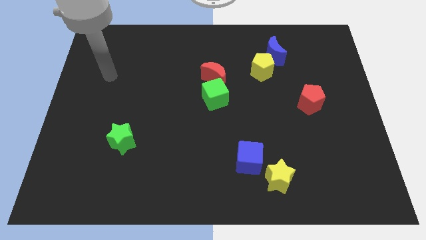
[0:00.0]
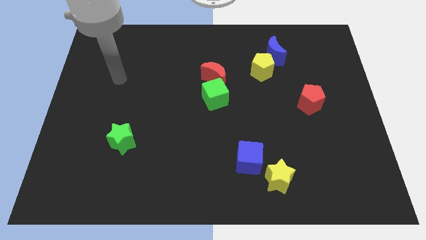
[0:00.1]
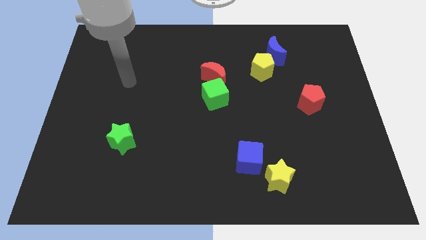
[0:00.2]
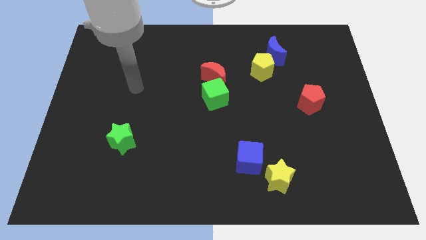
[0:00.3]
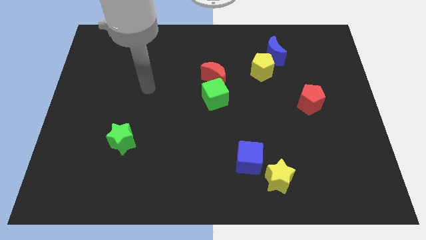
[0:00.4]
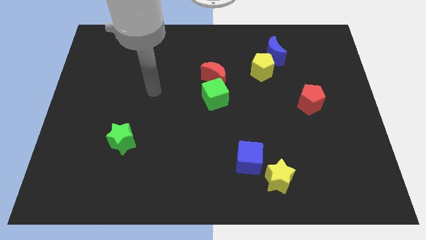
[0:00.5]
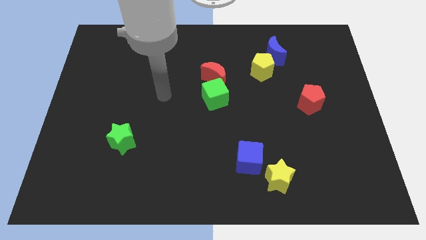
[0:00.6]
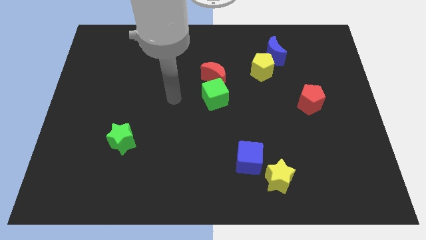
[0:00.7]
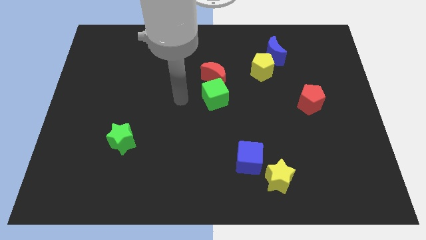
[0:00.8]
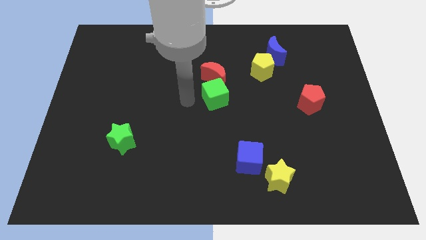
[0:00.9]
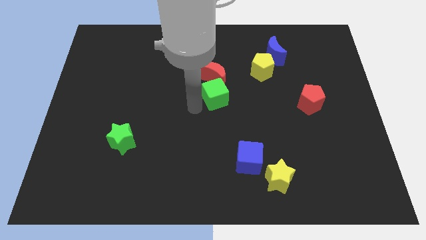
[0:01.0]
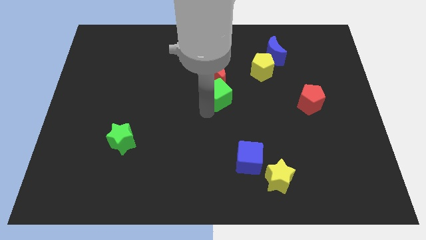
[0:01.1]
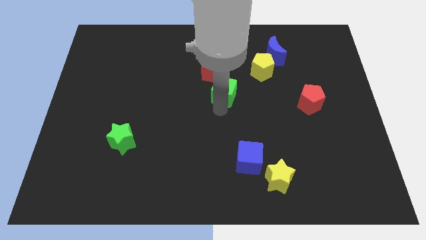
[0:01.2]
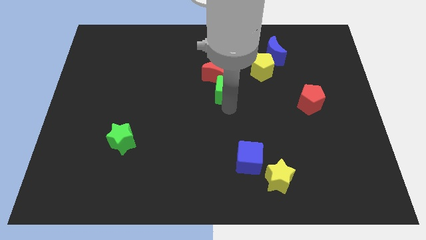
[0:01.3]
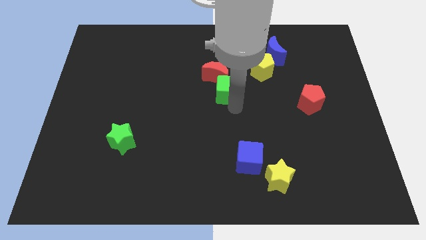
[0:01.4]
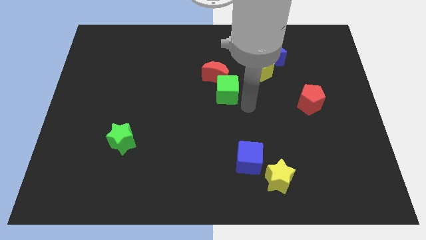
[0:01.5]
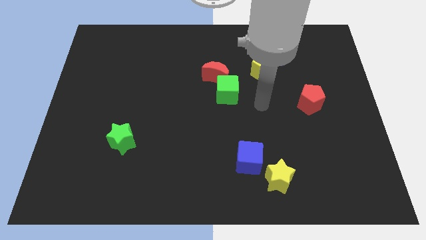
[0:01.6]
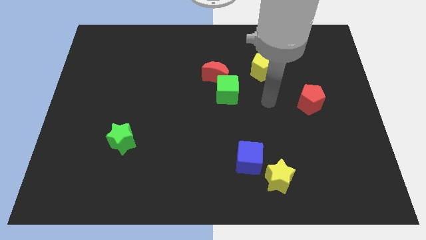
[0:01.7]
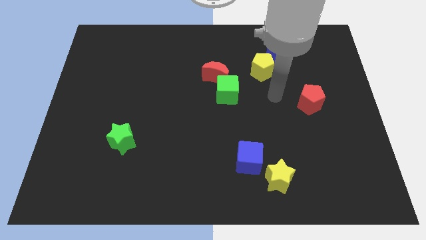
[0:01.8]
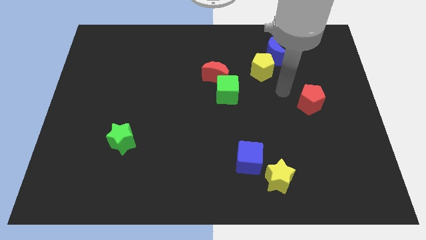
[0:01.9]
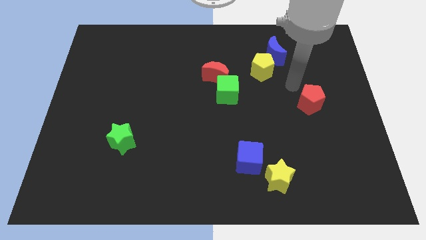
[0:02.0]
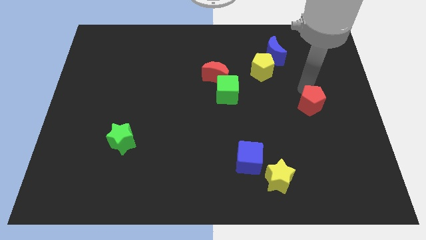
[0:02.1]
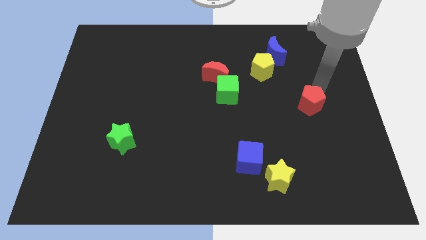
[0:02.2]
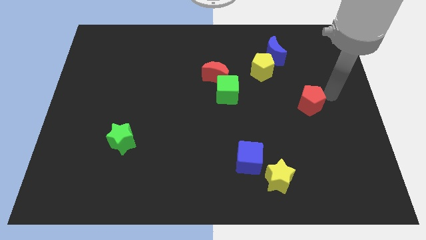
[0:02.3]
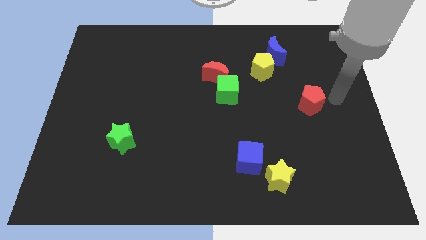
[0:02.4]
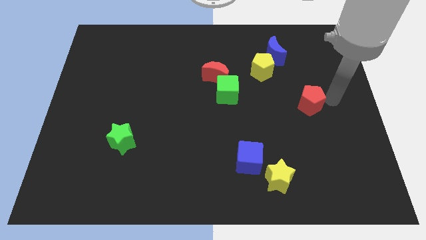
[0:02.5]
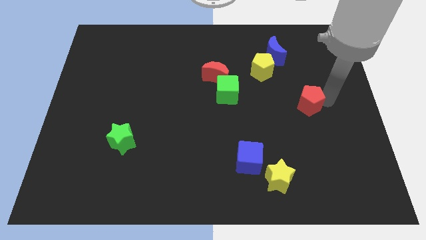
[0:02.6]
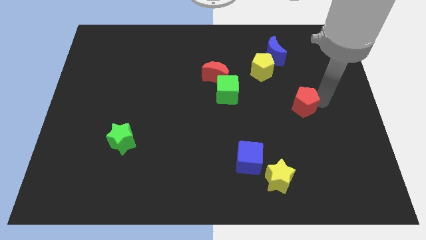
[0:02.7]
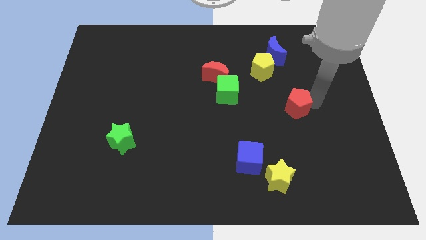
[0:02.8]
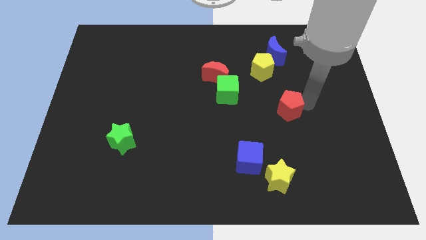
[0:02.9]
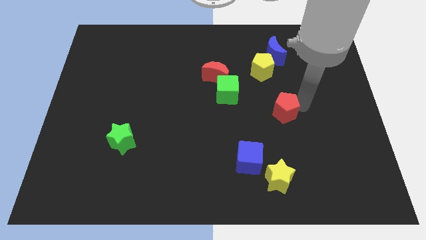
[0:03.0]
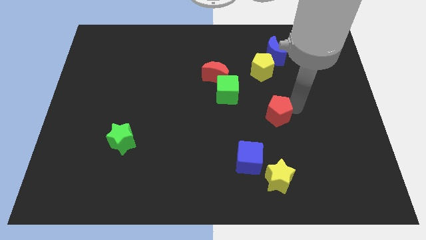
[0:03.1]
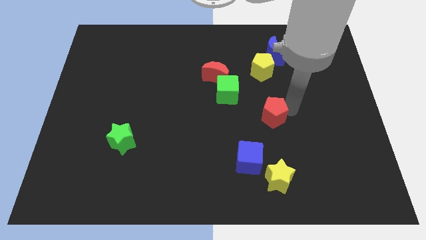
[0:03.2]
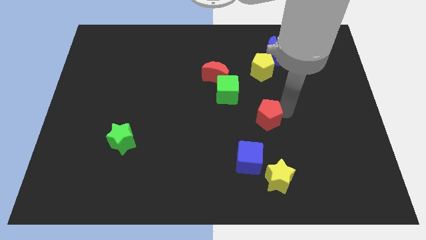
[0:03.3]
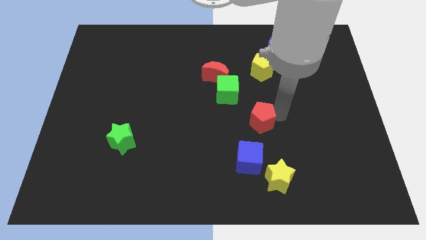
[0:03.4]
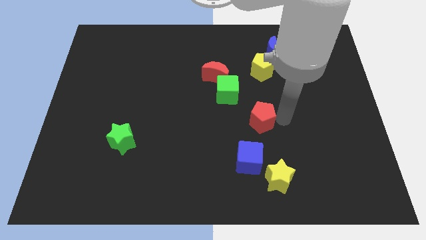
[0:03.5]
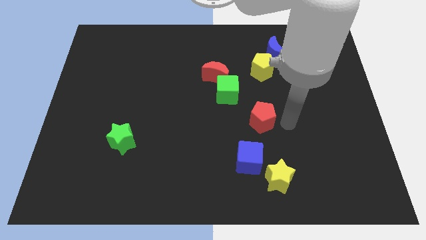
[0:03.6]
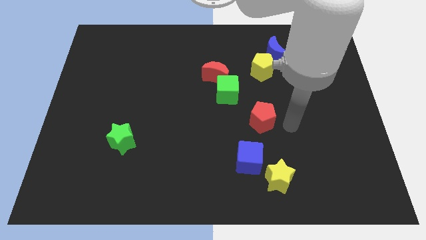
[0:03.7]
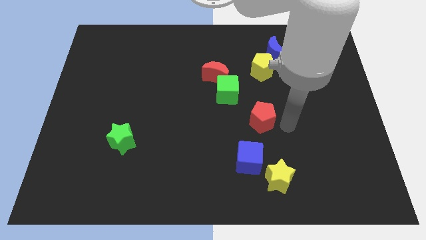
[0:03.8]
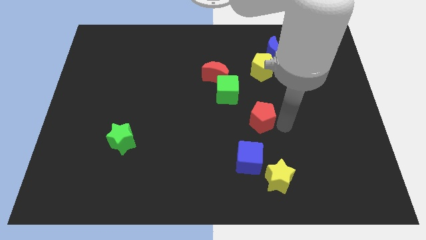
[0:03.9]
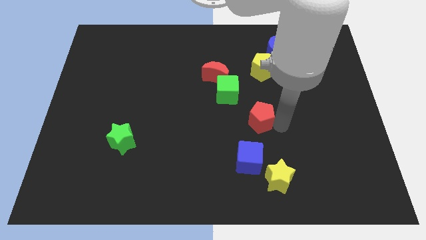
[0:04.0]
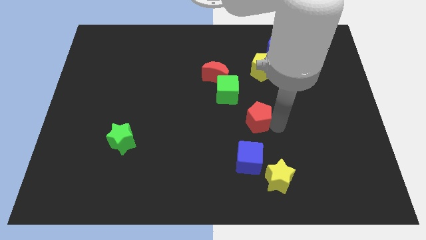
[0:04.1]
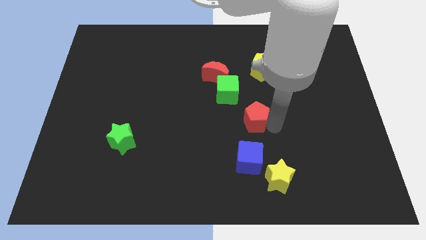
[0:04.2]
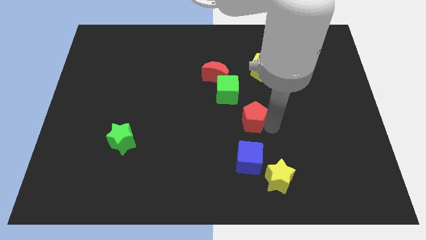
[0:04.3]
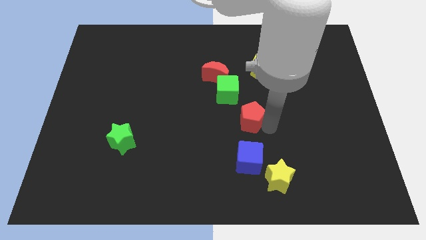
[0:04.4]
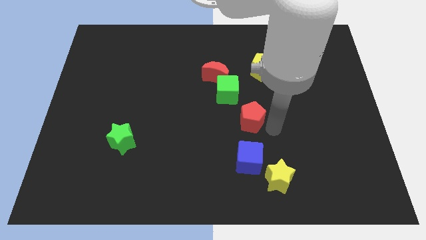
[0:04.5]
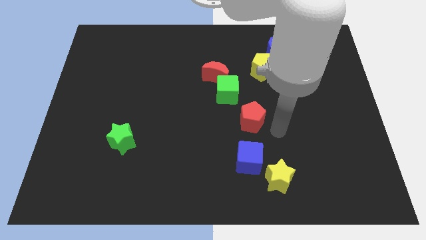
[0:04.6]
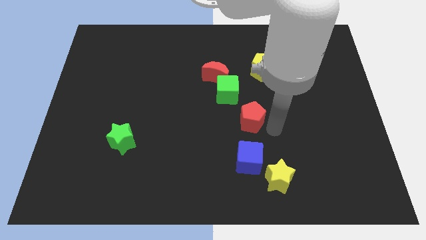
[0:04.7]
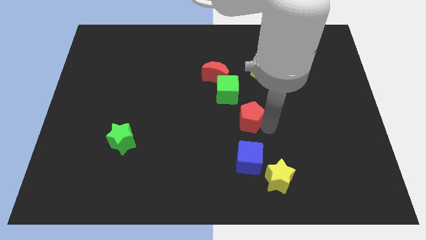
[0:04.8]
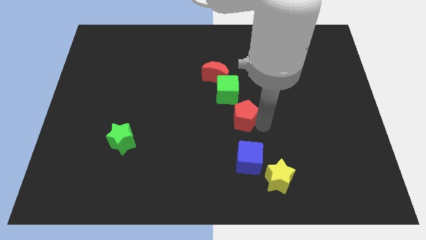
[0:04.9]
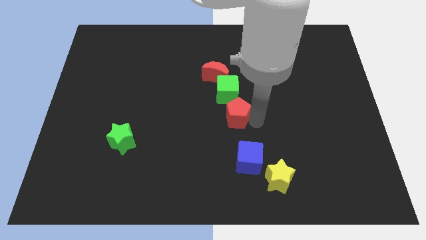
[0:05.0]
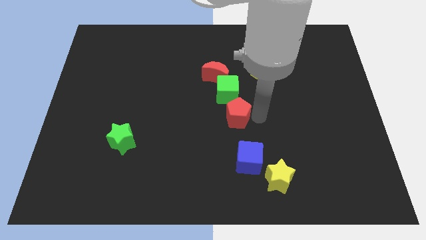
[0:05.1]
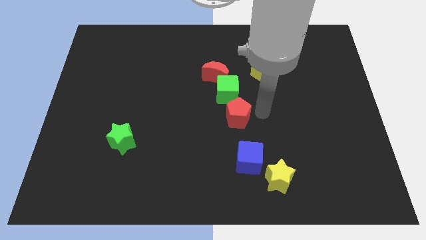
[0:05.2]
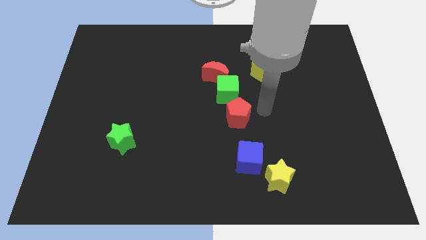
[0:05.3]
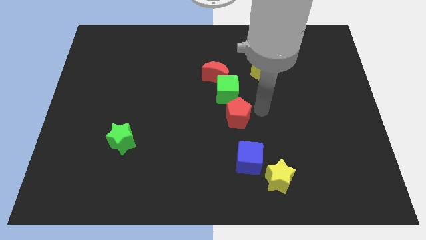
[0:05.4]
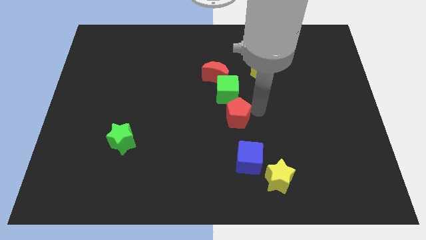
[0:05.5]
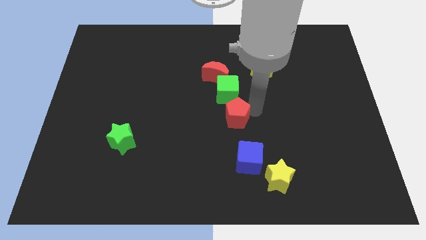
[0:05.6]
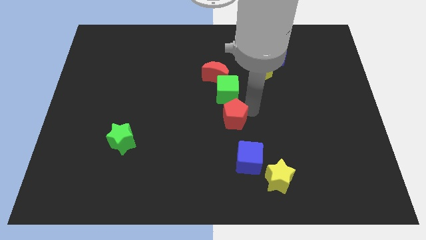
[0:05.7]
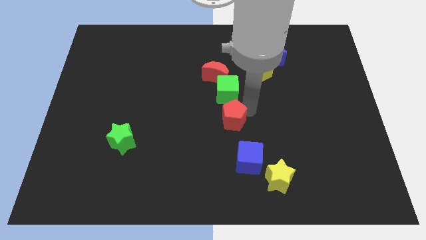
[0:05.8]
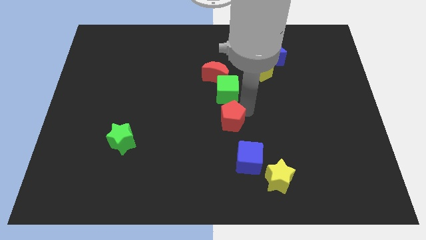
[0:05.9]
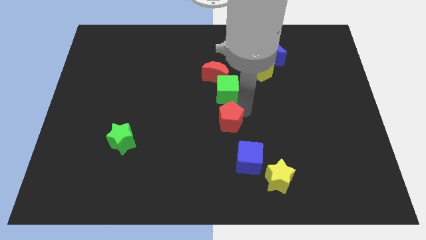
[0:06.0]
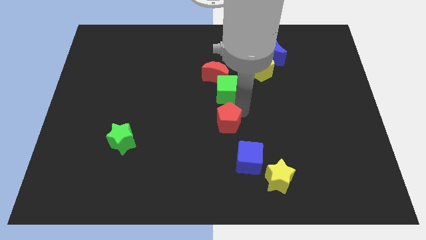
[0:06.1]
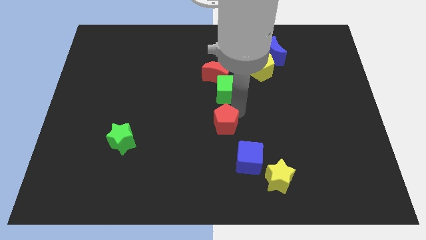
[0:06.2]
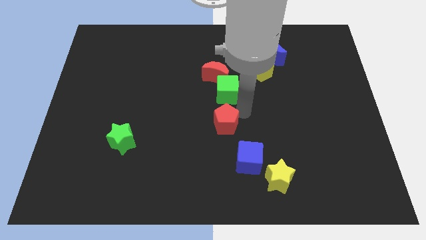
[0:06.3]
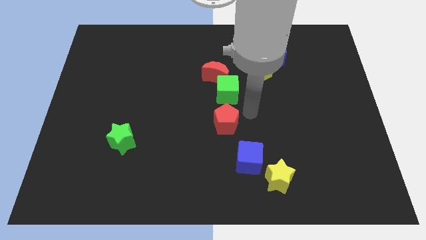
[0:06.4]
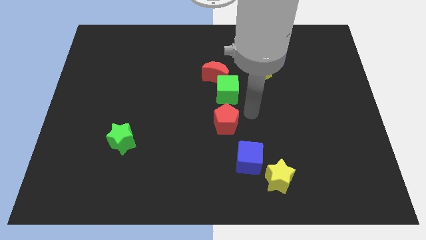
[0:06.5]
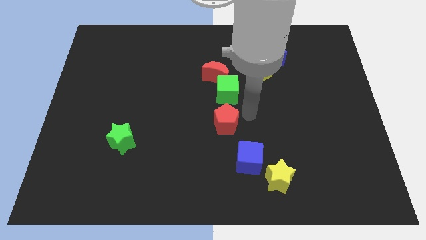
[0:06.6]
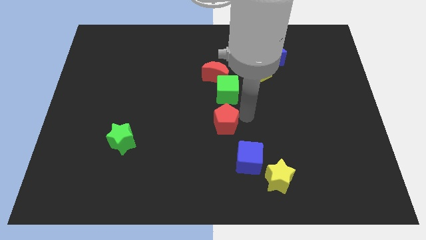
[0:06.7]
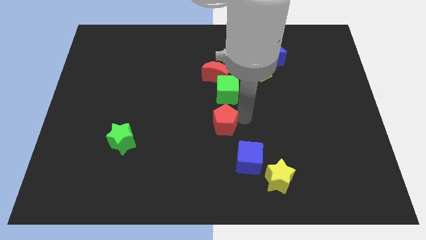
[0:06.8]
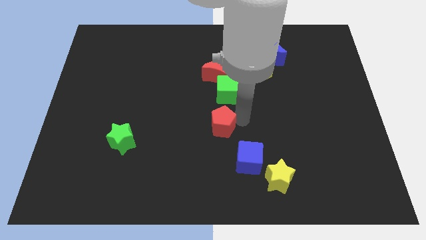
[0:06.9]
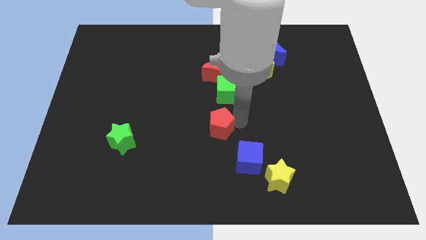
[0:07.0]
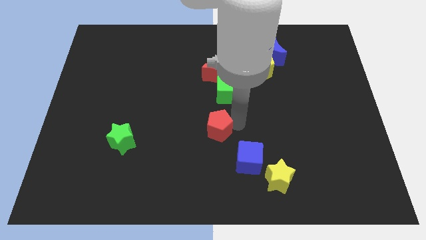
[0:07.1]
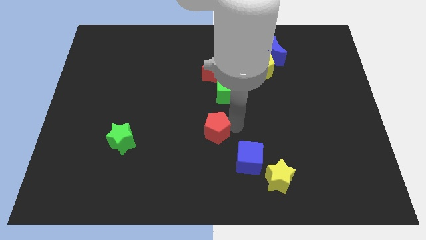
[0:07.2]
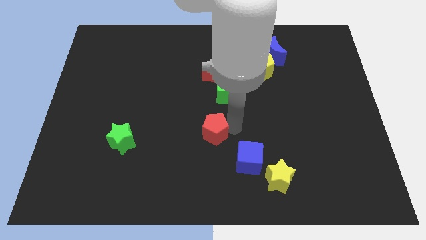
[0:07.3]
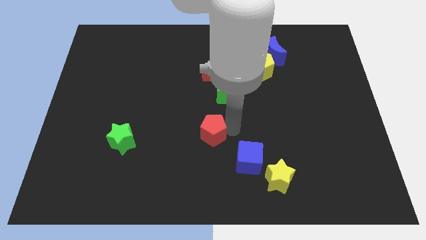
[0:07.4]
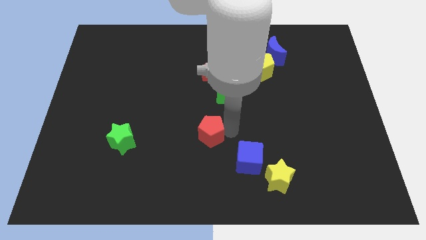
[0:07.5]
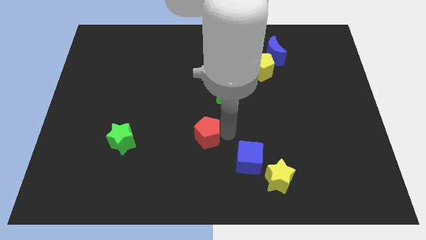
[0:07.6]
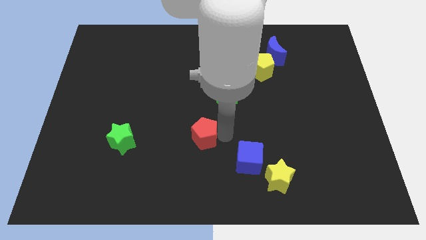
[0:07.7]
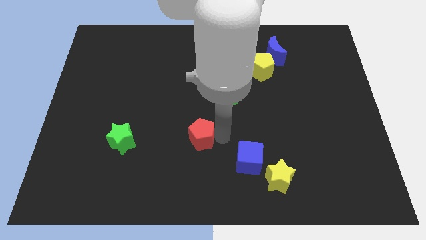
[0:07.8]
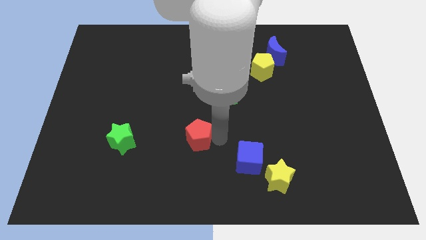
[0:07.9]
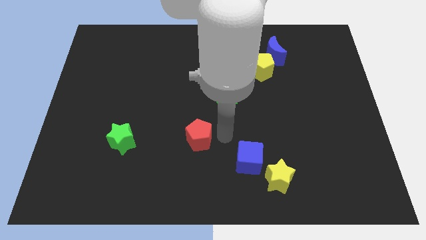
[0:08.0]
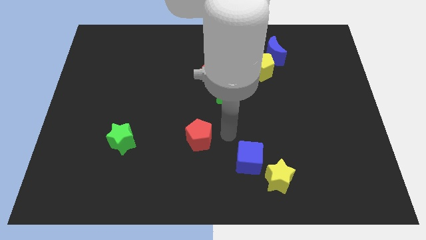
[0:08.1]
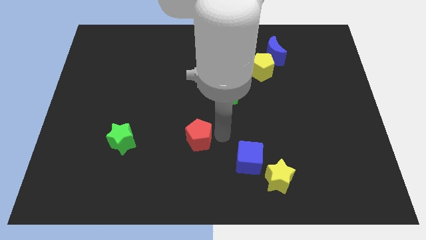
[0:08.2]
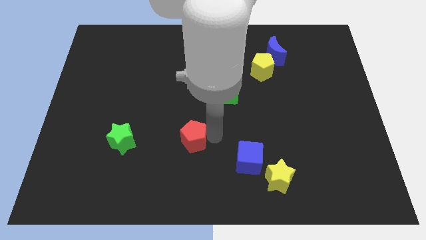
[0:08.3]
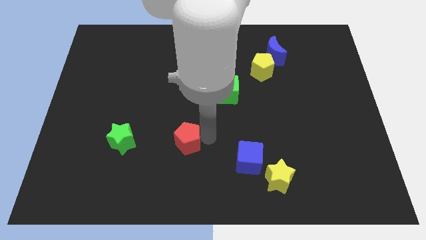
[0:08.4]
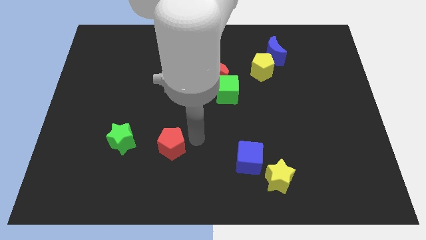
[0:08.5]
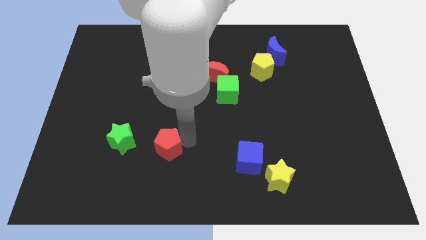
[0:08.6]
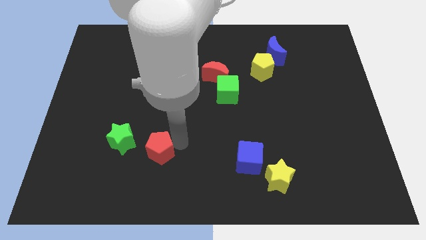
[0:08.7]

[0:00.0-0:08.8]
slide the red pentagon diagonally down and to the right of the green star
